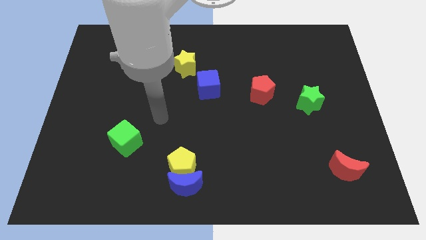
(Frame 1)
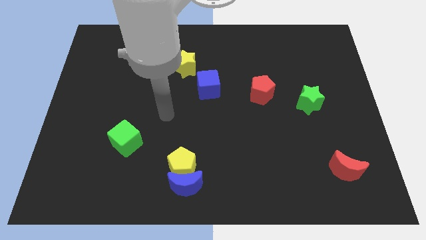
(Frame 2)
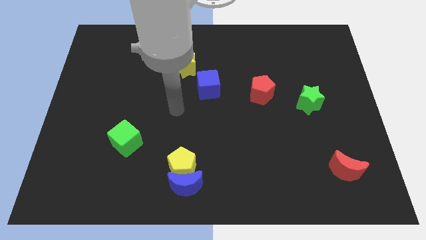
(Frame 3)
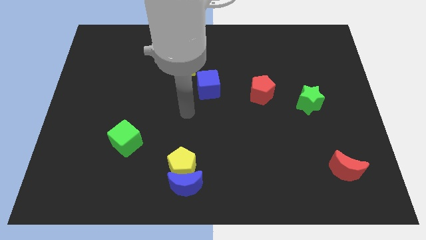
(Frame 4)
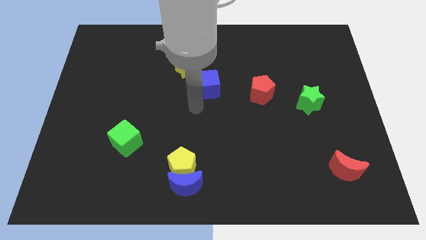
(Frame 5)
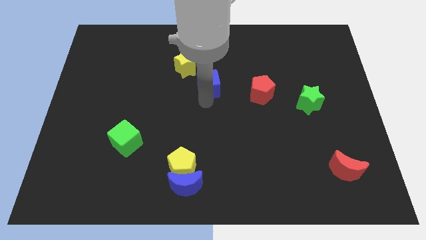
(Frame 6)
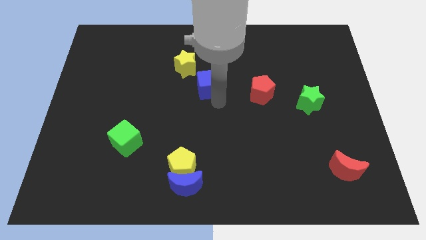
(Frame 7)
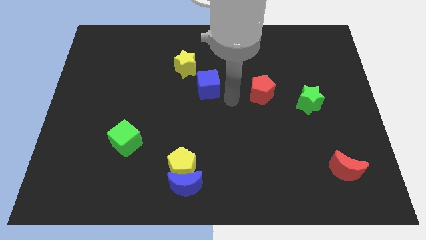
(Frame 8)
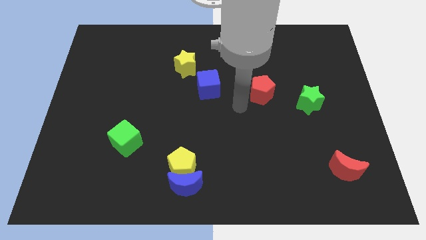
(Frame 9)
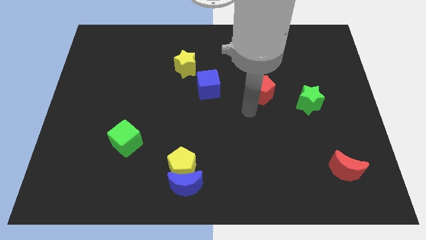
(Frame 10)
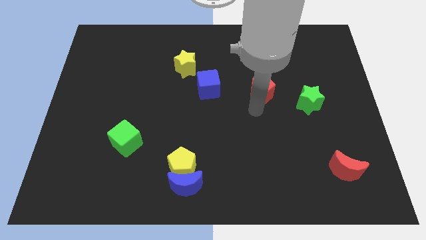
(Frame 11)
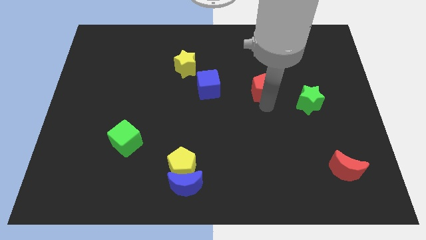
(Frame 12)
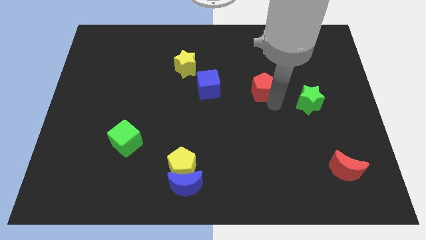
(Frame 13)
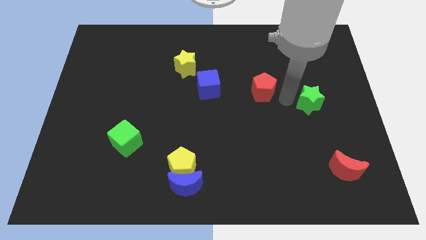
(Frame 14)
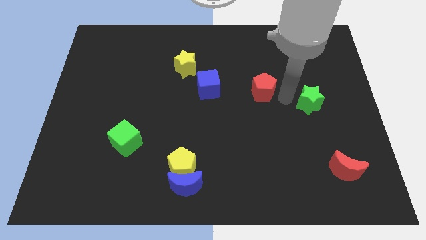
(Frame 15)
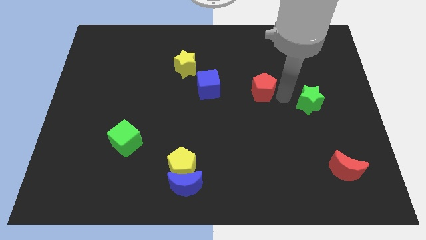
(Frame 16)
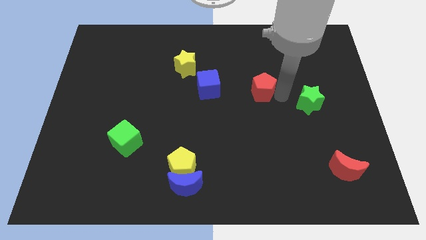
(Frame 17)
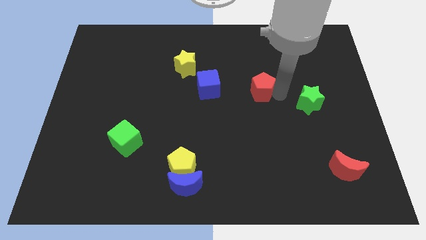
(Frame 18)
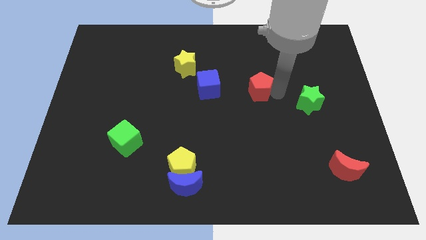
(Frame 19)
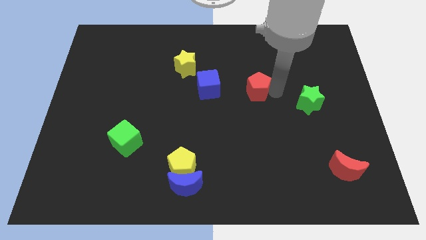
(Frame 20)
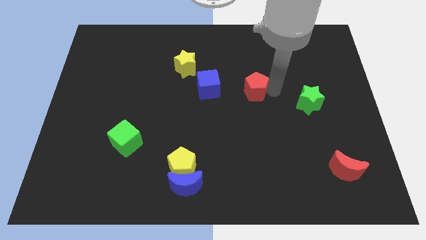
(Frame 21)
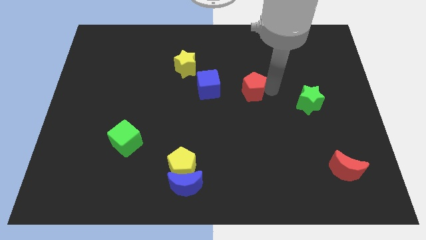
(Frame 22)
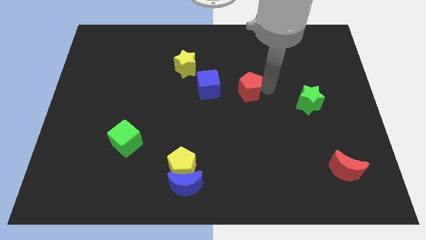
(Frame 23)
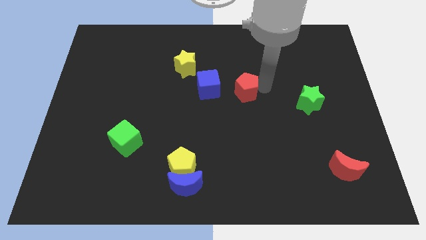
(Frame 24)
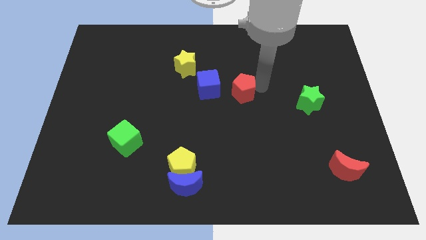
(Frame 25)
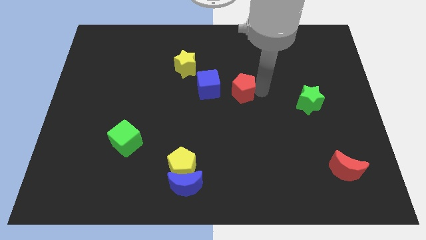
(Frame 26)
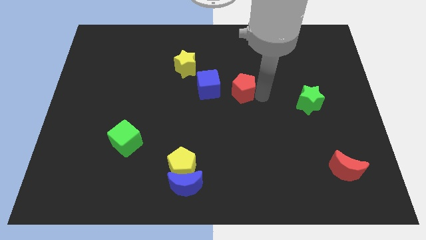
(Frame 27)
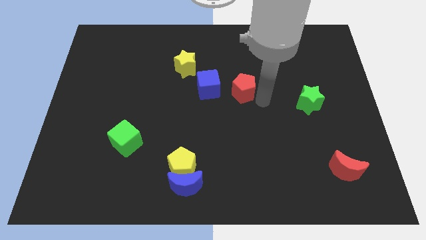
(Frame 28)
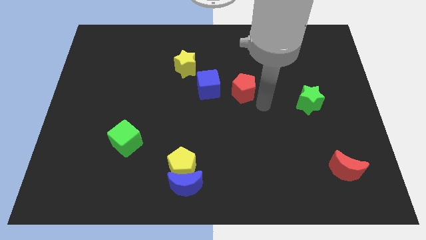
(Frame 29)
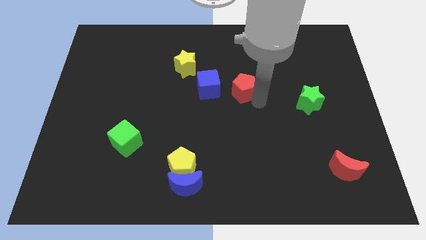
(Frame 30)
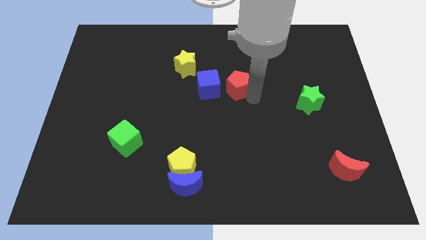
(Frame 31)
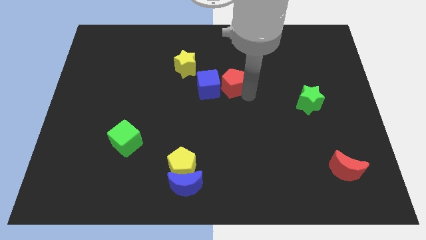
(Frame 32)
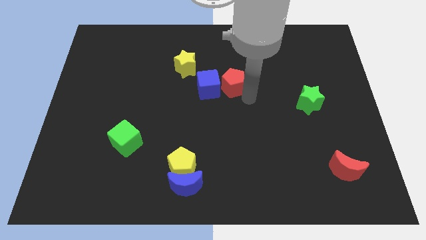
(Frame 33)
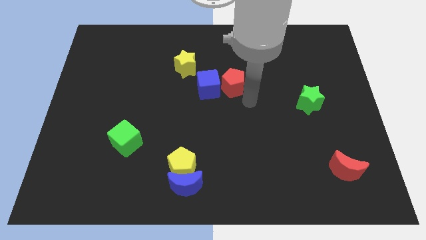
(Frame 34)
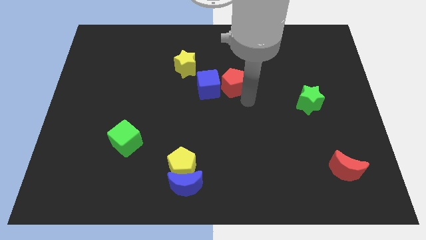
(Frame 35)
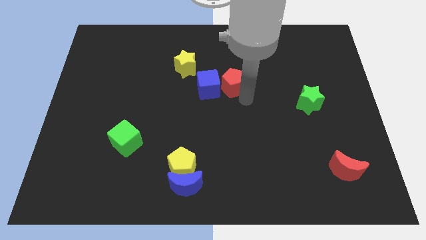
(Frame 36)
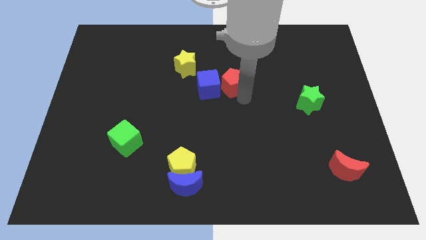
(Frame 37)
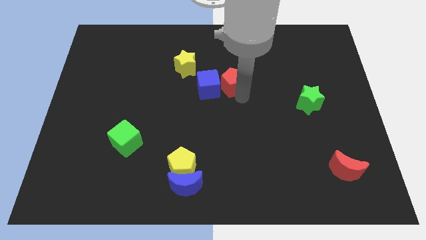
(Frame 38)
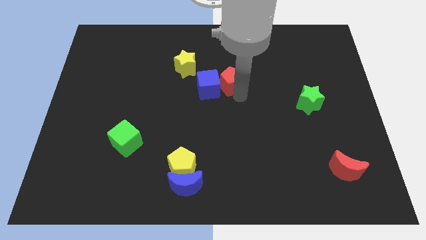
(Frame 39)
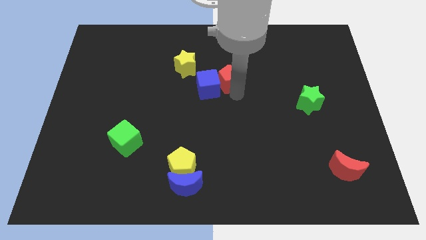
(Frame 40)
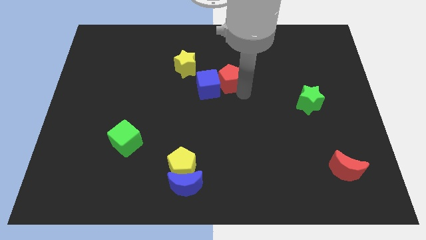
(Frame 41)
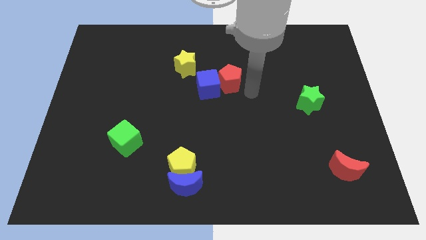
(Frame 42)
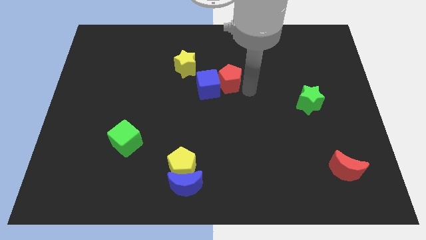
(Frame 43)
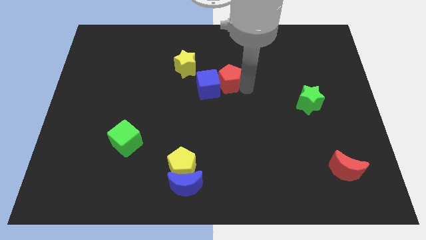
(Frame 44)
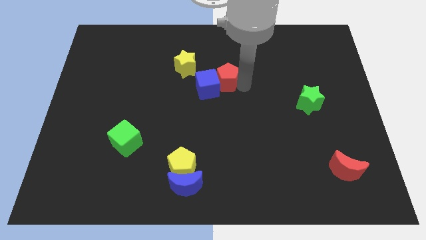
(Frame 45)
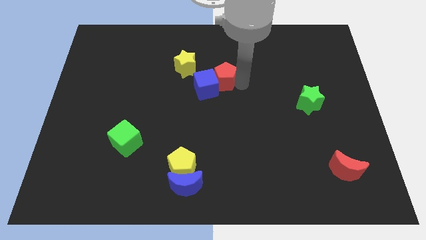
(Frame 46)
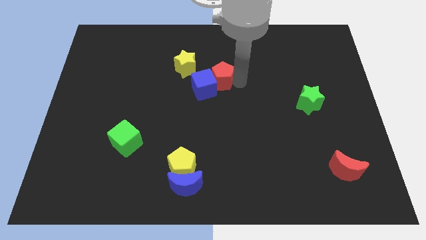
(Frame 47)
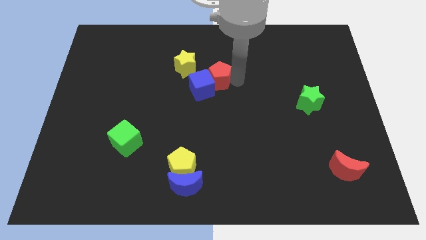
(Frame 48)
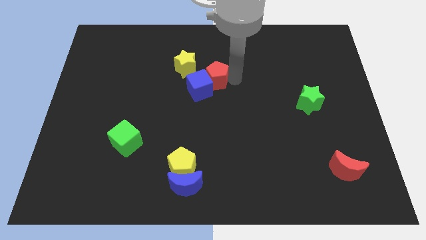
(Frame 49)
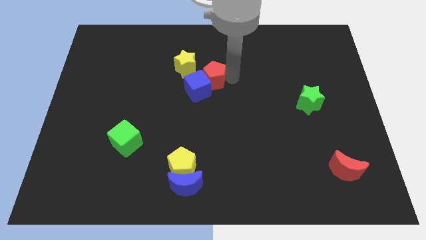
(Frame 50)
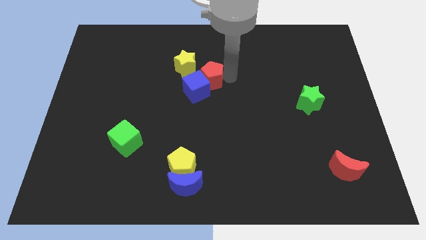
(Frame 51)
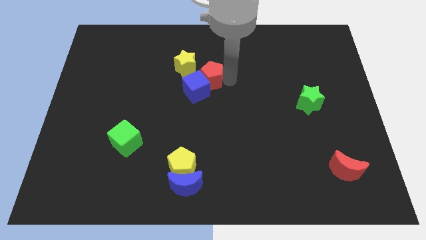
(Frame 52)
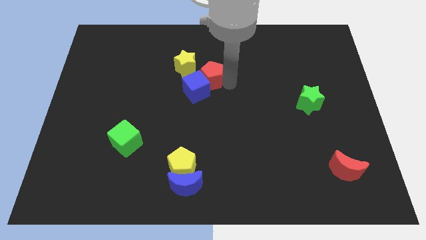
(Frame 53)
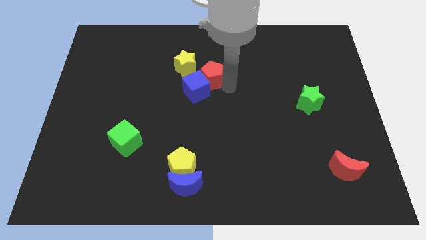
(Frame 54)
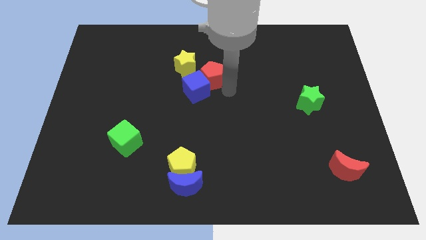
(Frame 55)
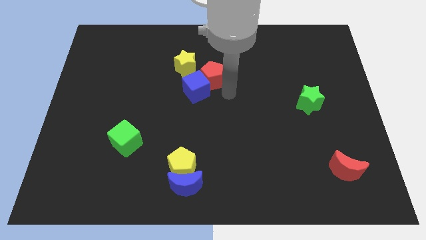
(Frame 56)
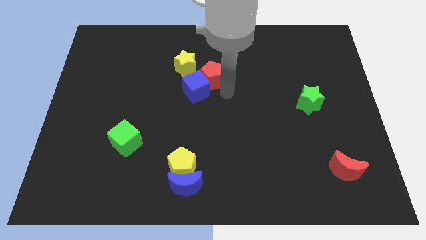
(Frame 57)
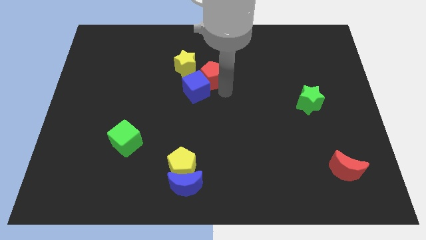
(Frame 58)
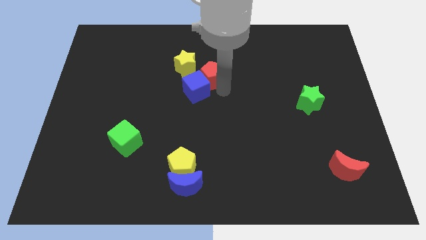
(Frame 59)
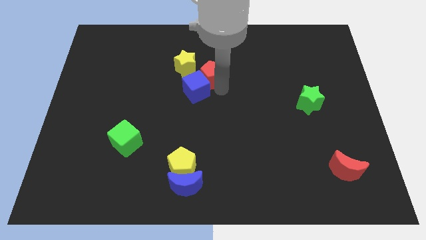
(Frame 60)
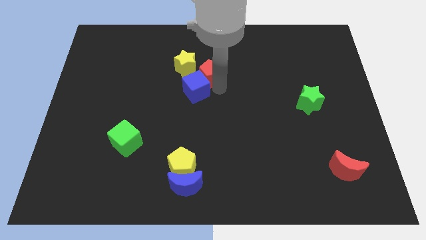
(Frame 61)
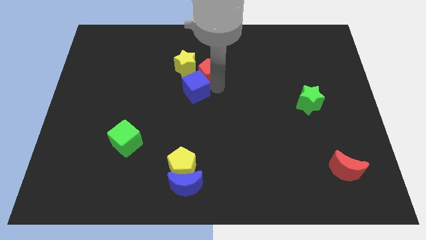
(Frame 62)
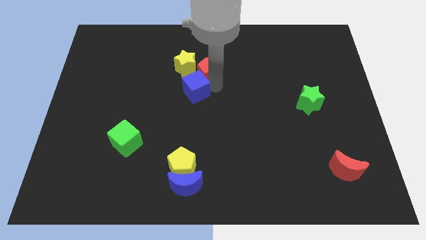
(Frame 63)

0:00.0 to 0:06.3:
slide the red pentagon close to the yellow star

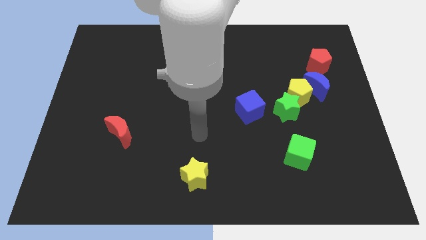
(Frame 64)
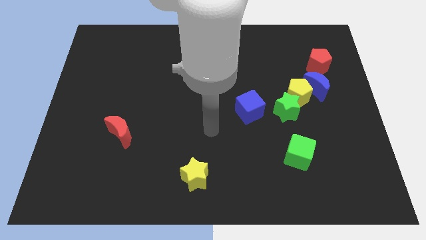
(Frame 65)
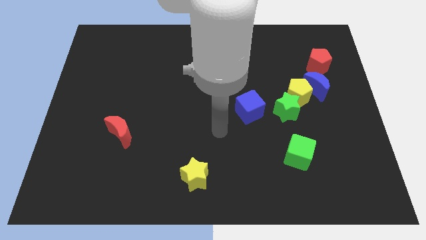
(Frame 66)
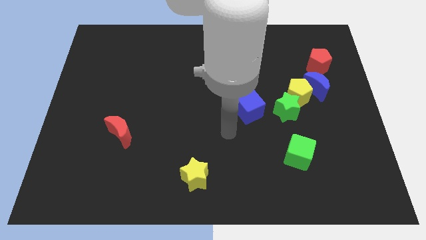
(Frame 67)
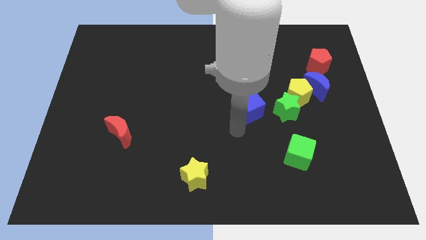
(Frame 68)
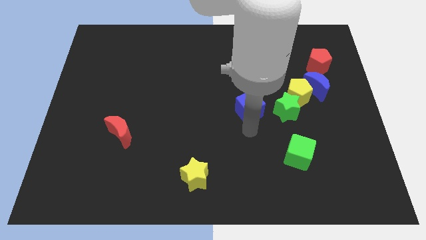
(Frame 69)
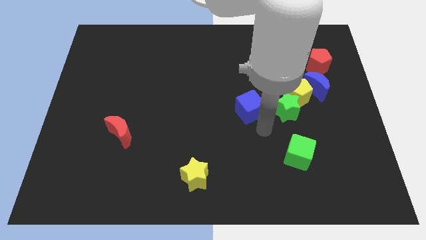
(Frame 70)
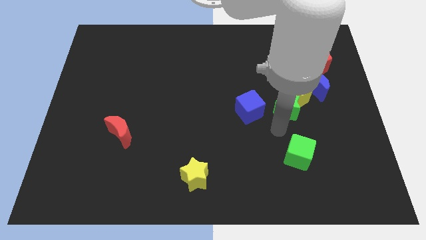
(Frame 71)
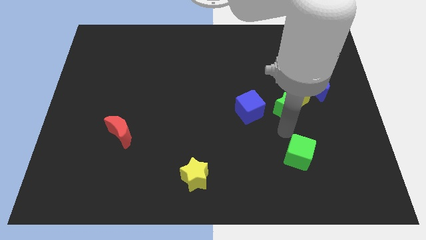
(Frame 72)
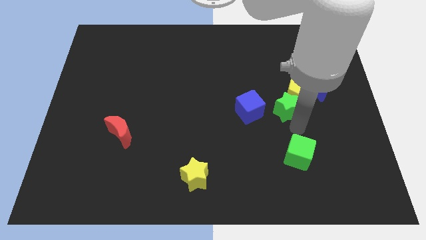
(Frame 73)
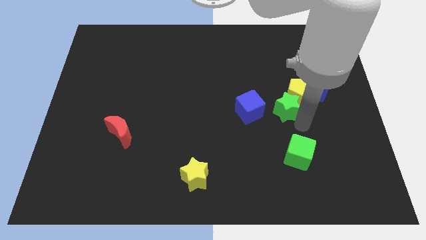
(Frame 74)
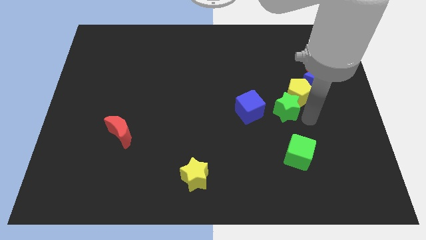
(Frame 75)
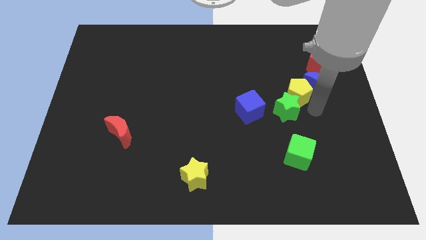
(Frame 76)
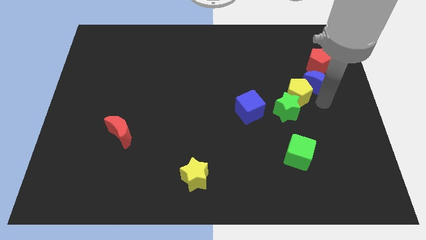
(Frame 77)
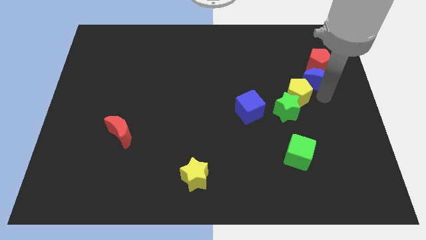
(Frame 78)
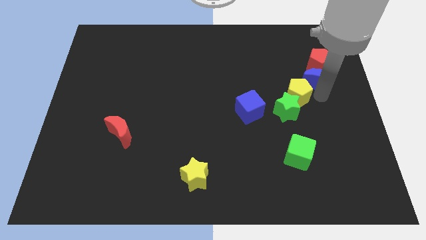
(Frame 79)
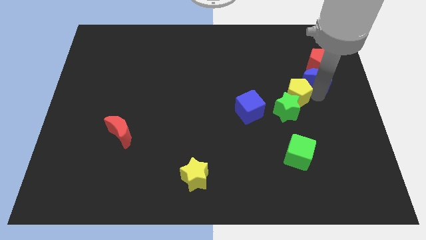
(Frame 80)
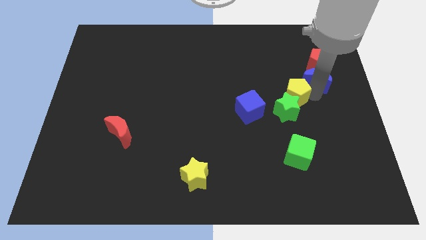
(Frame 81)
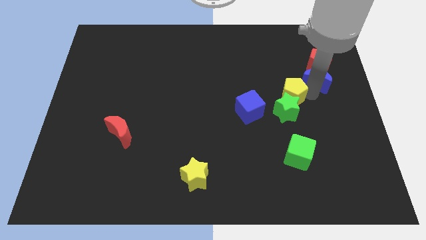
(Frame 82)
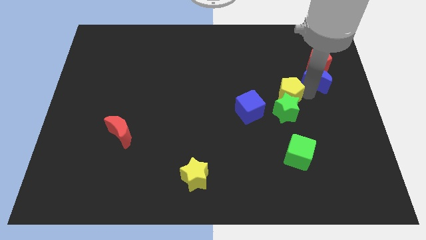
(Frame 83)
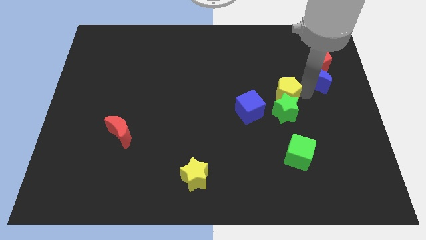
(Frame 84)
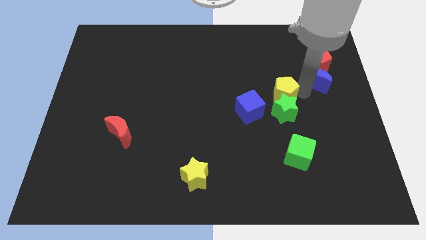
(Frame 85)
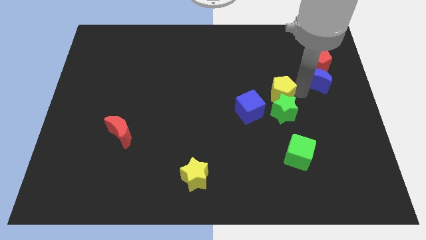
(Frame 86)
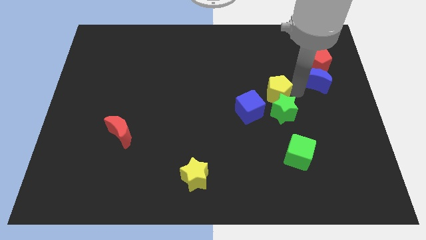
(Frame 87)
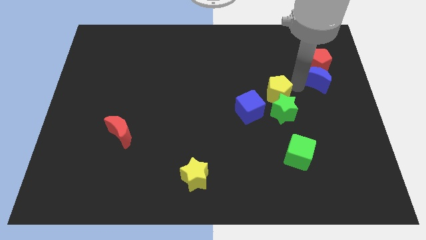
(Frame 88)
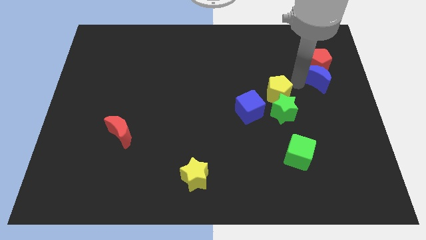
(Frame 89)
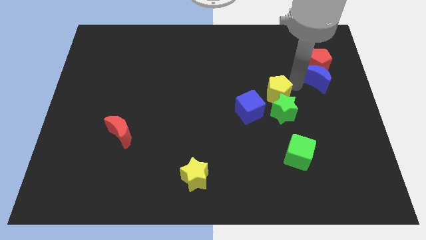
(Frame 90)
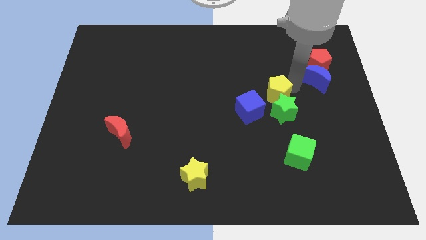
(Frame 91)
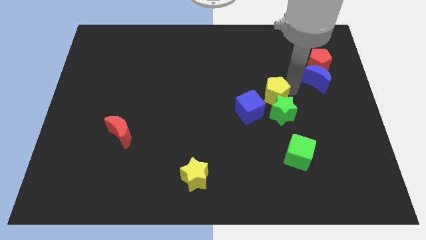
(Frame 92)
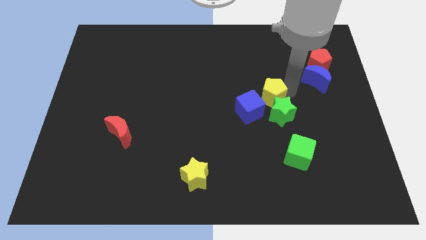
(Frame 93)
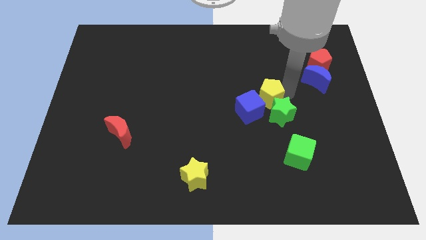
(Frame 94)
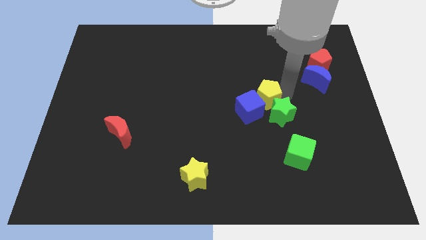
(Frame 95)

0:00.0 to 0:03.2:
put the yellow pentagon close to the blue cube
